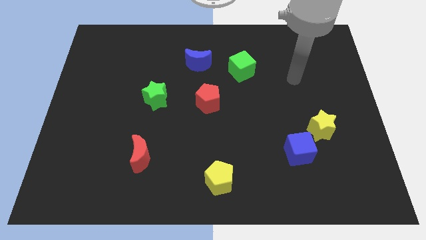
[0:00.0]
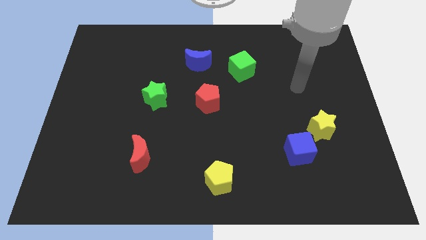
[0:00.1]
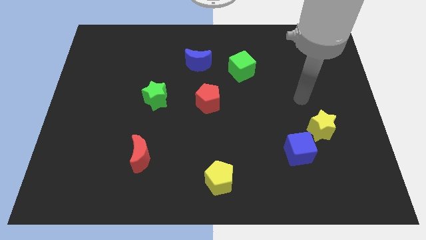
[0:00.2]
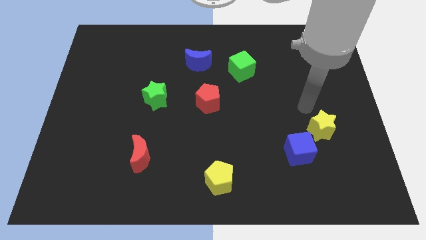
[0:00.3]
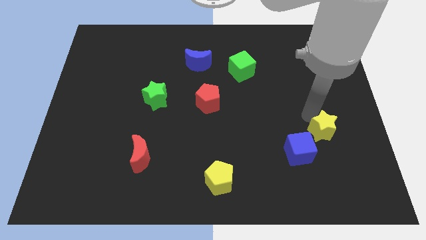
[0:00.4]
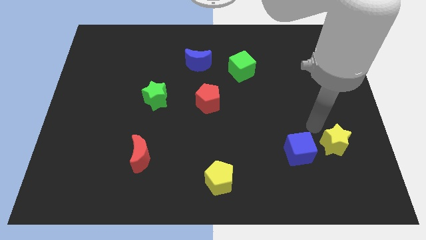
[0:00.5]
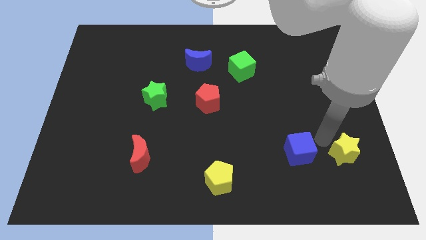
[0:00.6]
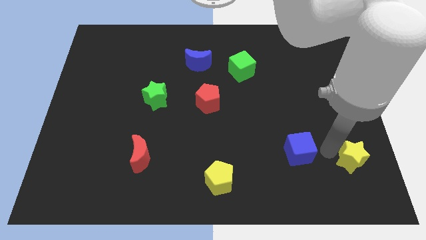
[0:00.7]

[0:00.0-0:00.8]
pull the blue cube apart from the yellow star

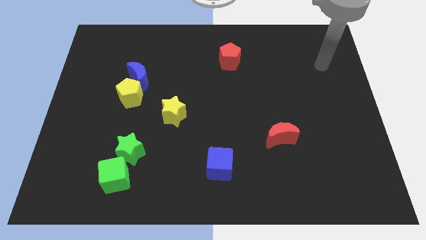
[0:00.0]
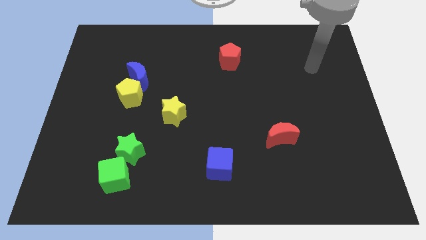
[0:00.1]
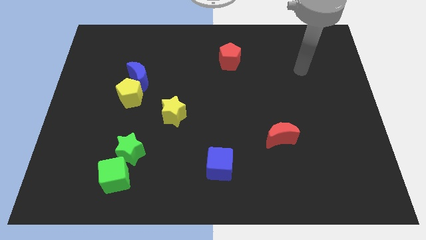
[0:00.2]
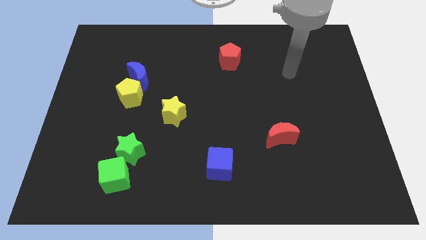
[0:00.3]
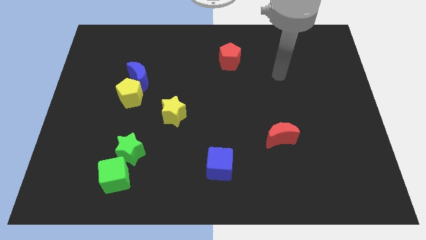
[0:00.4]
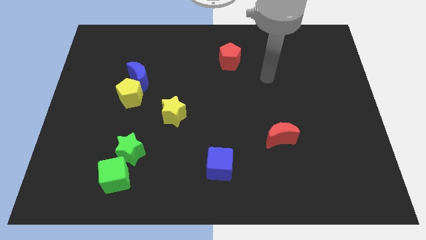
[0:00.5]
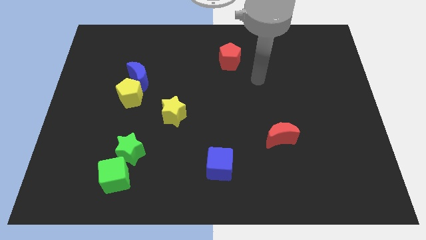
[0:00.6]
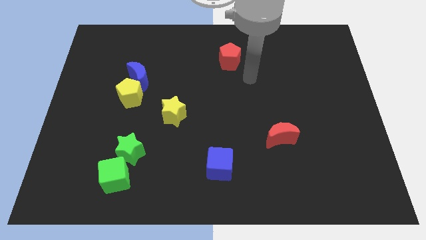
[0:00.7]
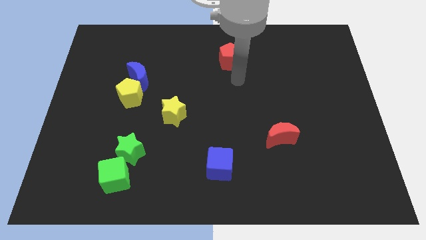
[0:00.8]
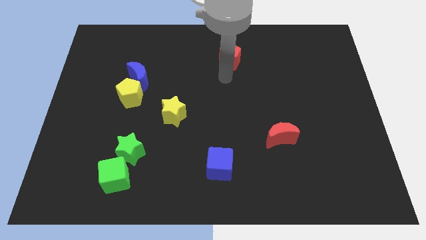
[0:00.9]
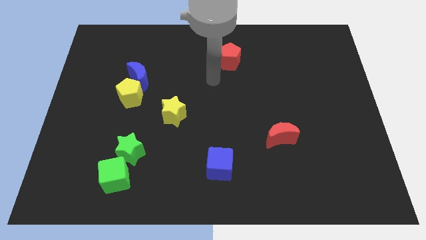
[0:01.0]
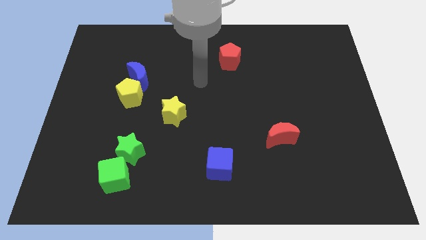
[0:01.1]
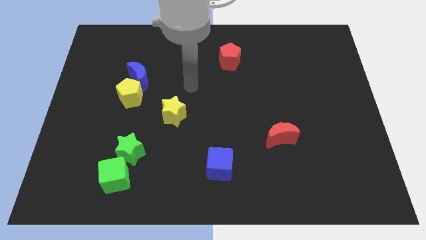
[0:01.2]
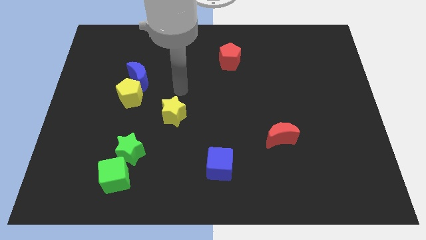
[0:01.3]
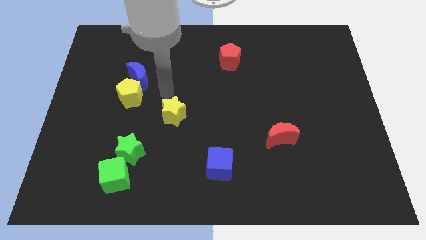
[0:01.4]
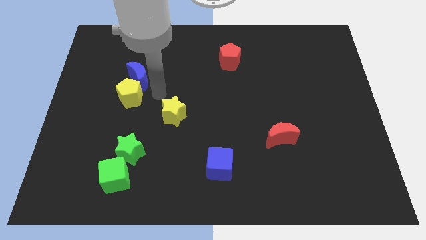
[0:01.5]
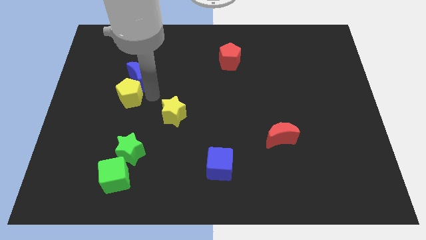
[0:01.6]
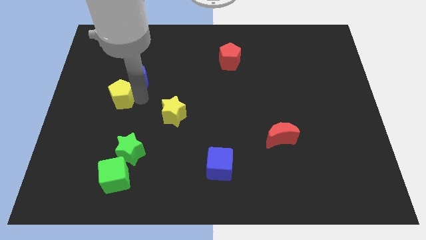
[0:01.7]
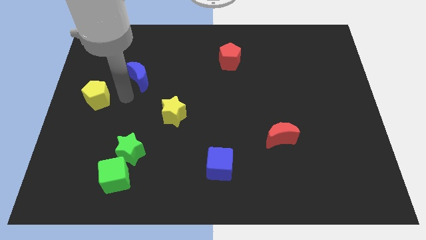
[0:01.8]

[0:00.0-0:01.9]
move the blue moon away from the yellow pentagon

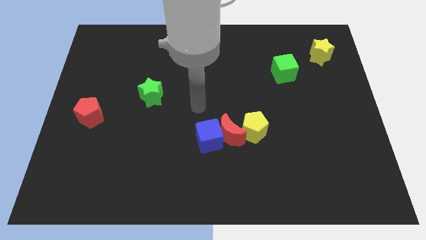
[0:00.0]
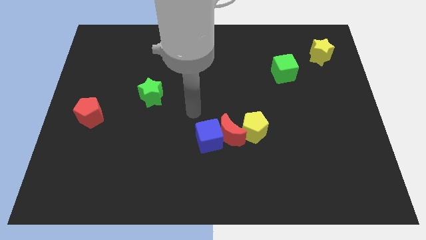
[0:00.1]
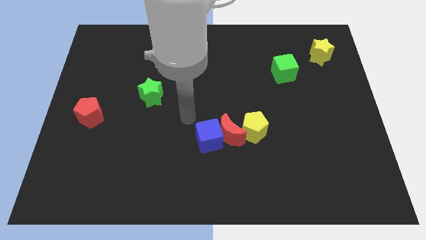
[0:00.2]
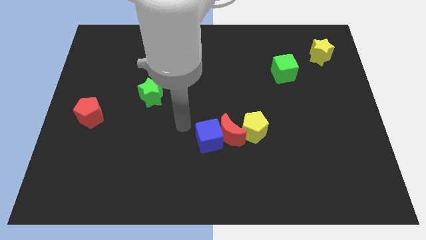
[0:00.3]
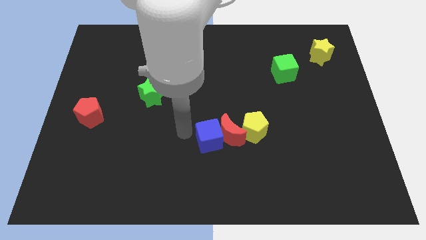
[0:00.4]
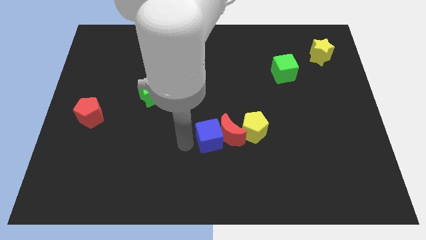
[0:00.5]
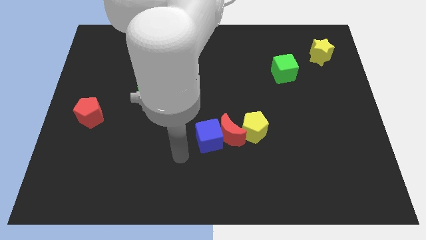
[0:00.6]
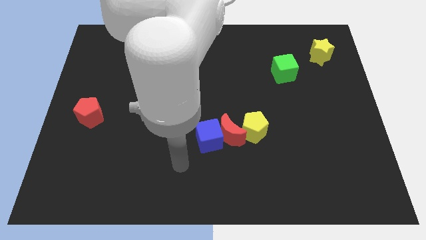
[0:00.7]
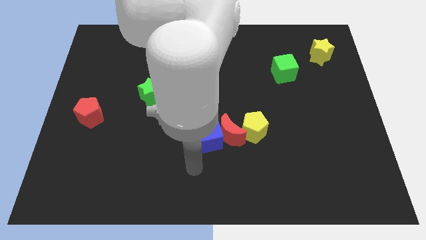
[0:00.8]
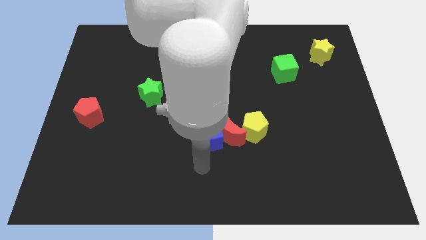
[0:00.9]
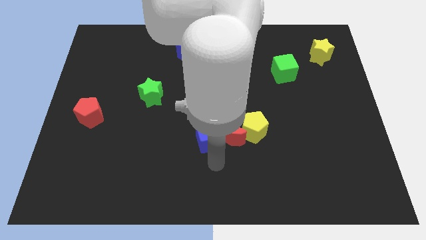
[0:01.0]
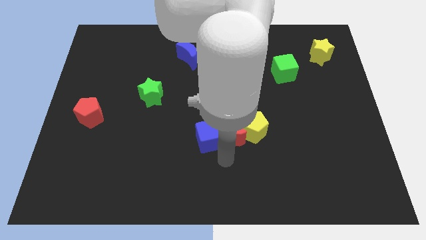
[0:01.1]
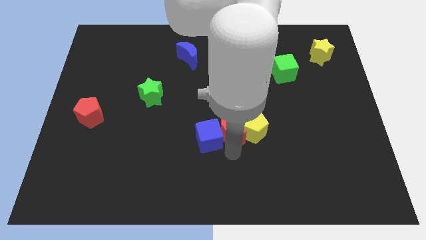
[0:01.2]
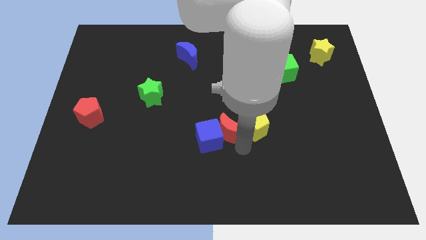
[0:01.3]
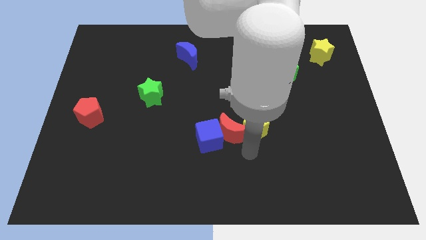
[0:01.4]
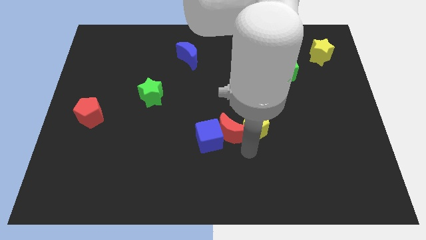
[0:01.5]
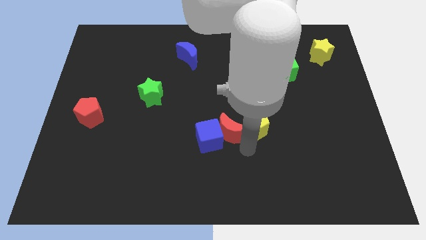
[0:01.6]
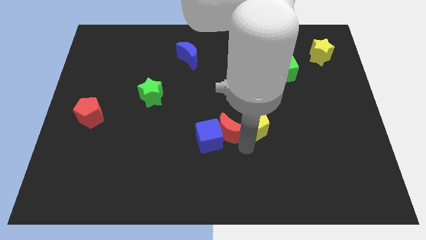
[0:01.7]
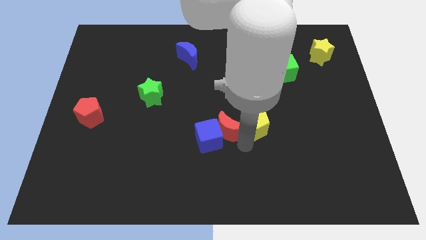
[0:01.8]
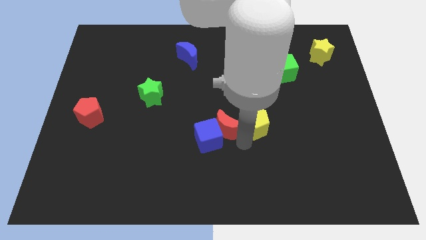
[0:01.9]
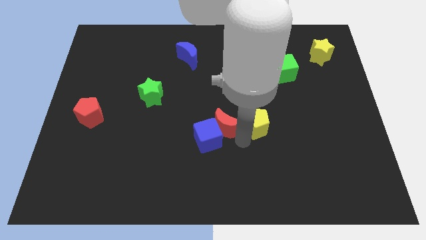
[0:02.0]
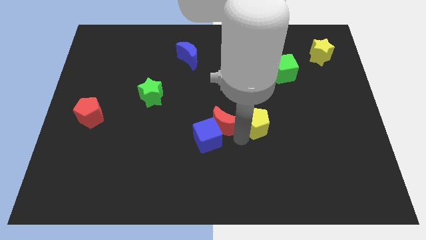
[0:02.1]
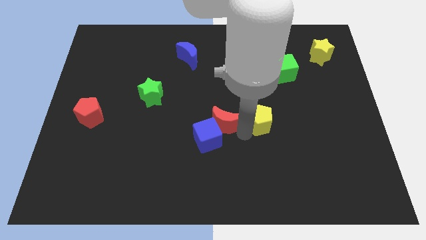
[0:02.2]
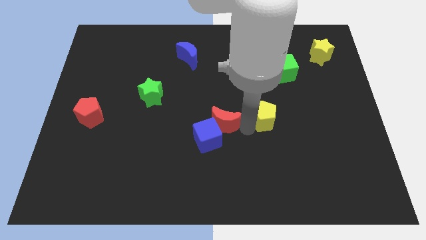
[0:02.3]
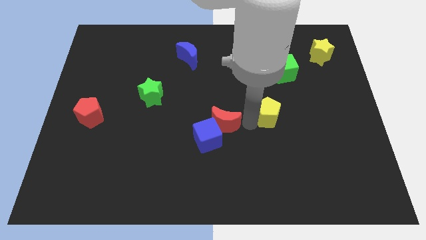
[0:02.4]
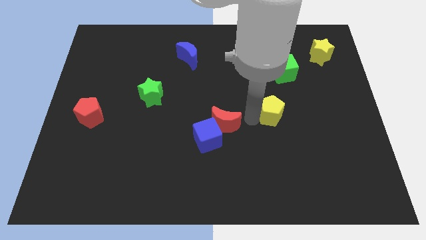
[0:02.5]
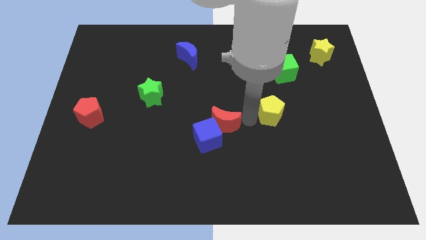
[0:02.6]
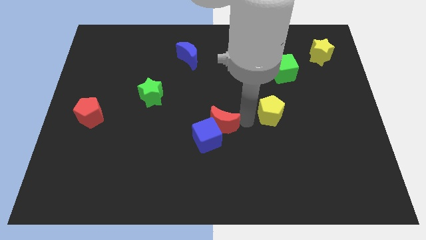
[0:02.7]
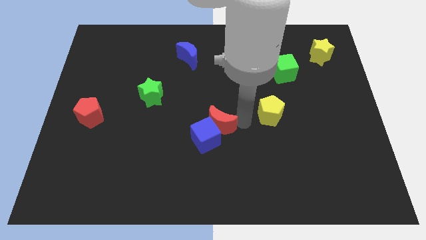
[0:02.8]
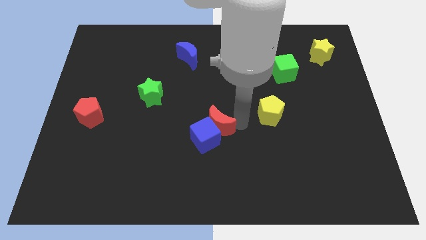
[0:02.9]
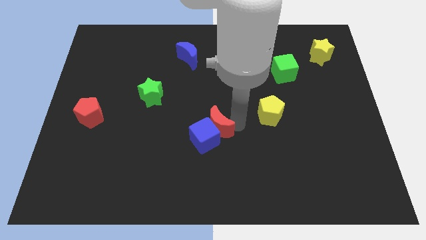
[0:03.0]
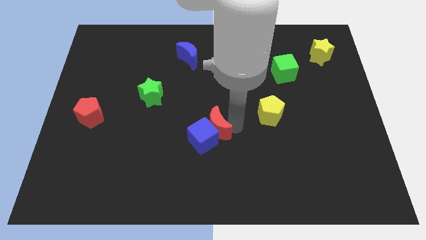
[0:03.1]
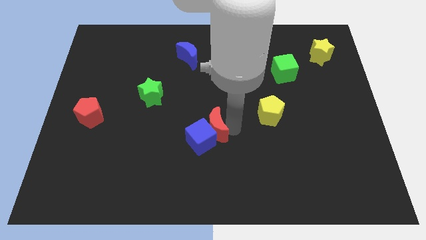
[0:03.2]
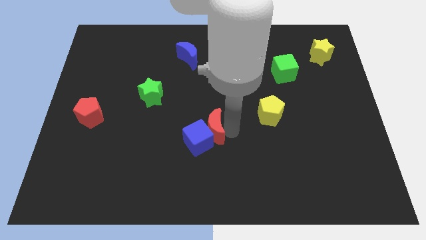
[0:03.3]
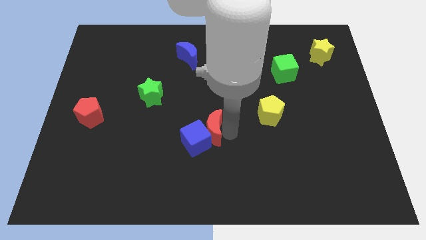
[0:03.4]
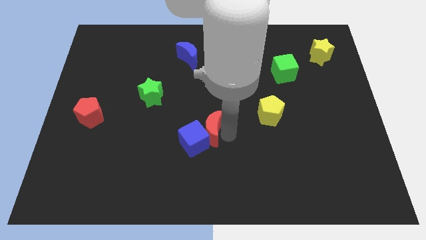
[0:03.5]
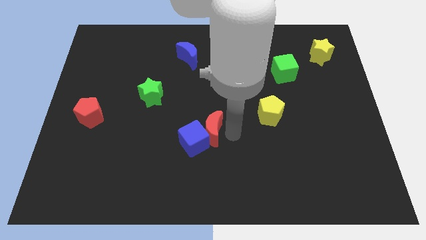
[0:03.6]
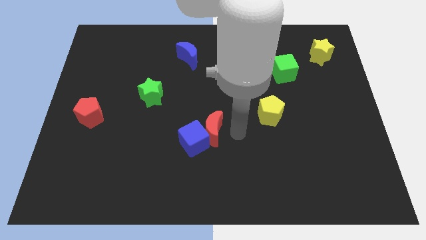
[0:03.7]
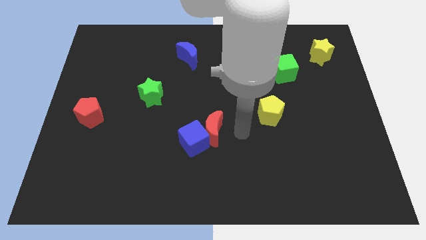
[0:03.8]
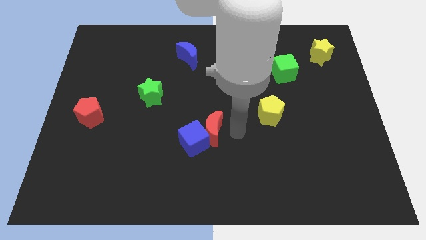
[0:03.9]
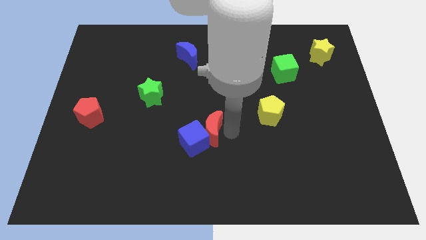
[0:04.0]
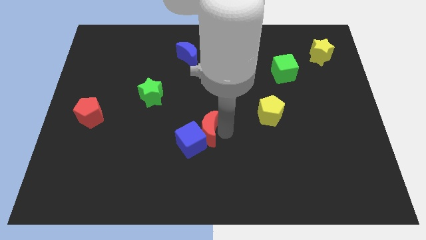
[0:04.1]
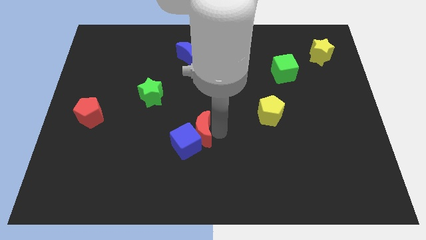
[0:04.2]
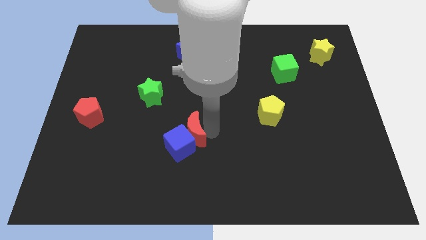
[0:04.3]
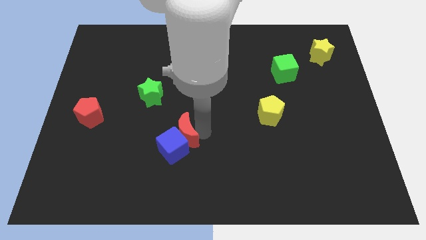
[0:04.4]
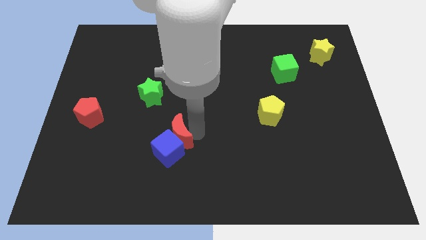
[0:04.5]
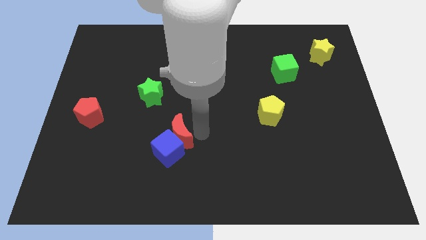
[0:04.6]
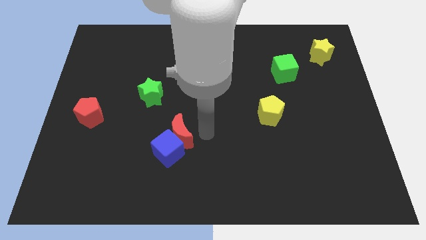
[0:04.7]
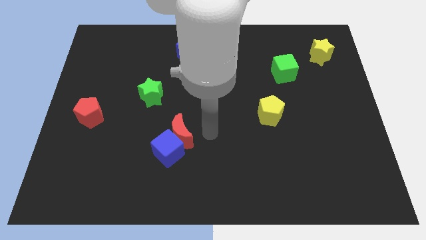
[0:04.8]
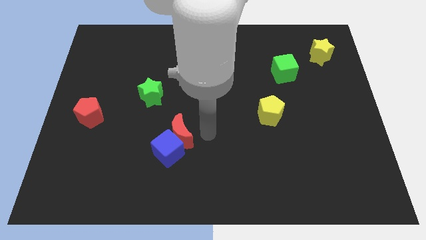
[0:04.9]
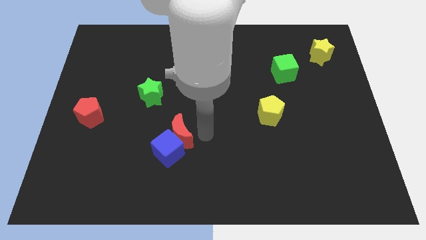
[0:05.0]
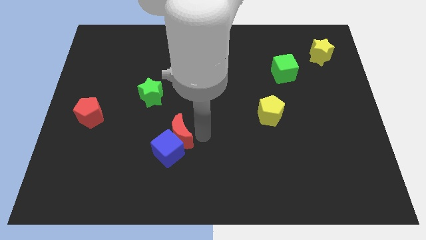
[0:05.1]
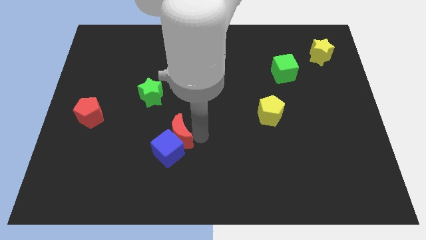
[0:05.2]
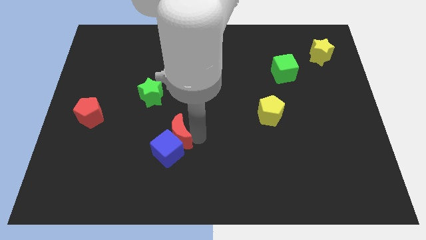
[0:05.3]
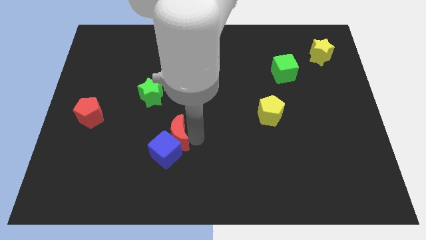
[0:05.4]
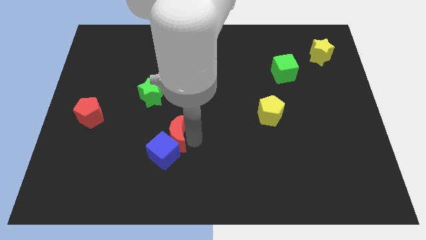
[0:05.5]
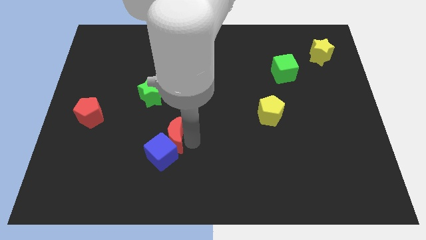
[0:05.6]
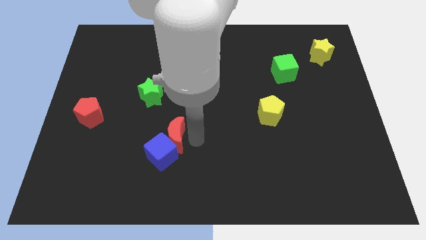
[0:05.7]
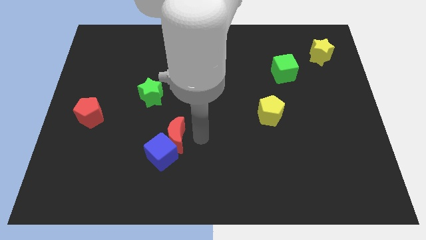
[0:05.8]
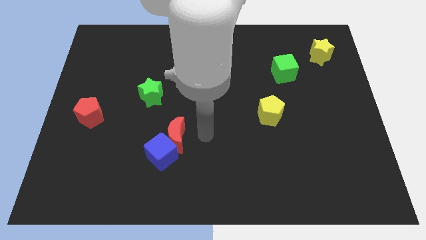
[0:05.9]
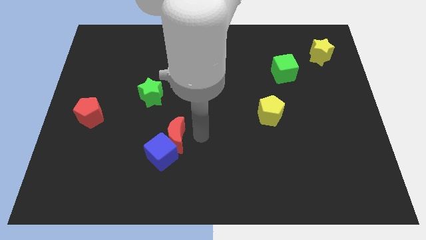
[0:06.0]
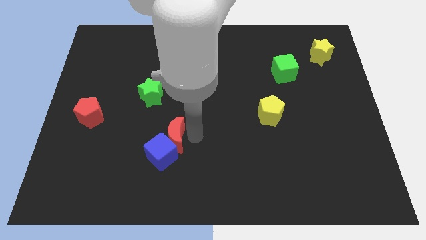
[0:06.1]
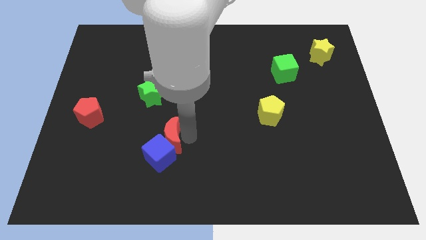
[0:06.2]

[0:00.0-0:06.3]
separate the red moon from the blue cube and yellow pentagon

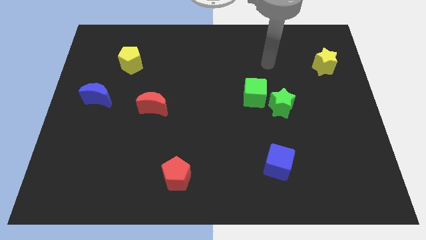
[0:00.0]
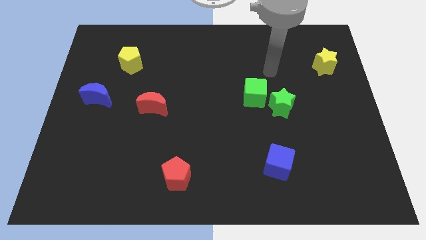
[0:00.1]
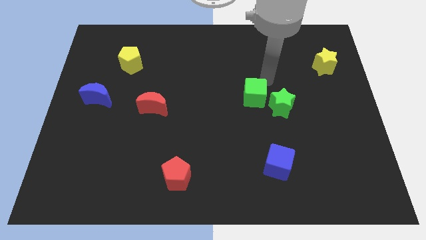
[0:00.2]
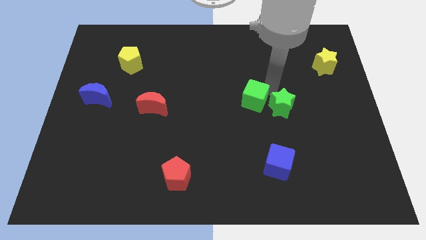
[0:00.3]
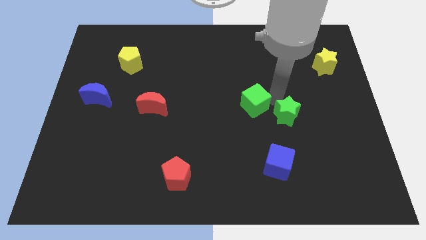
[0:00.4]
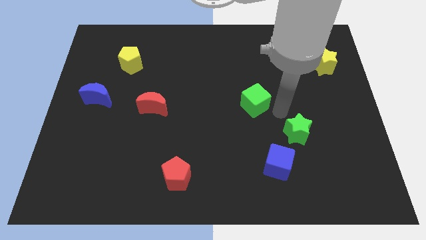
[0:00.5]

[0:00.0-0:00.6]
pull the green cube apart from the green star
